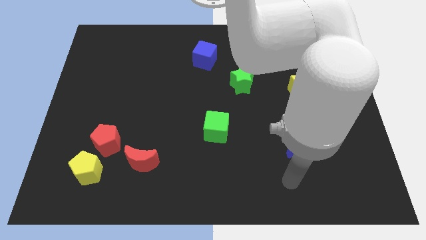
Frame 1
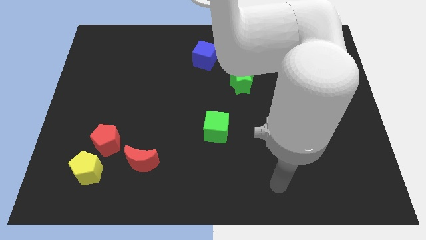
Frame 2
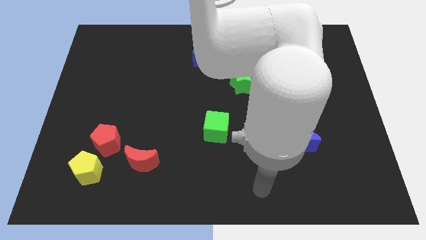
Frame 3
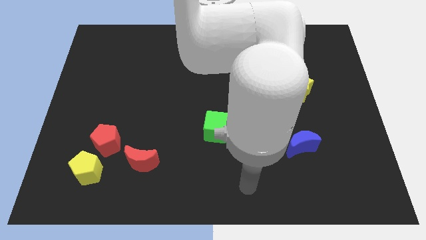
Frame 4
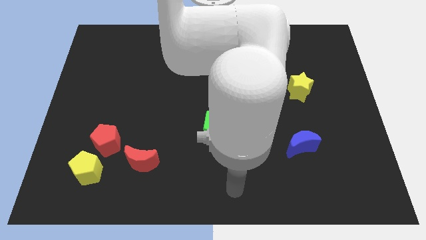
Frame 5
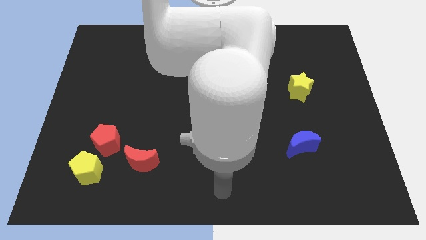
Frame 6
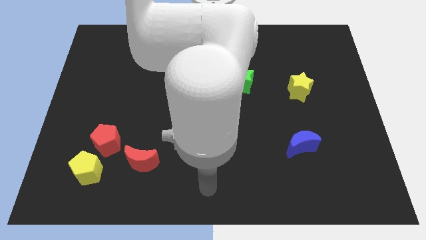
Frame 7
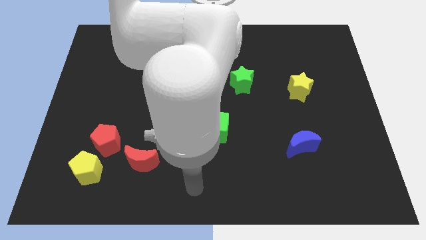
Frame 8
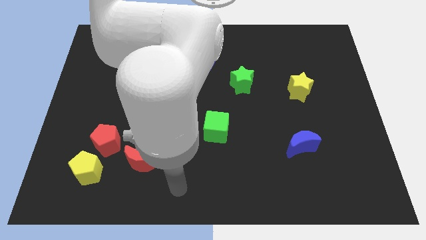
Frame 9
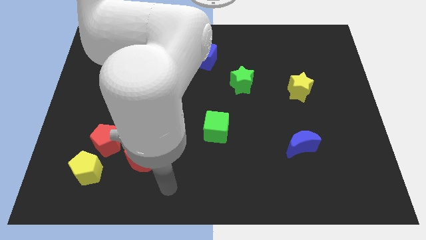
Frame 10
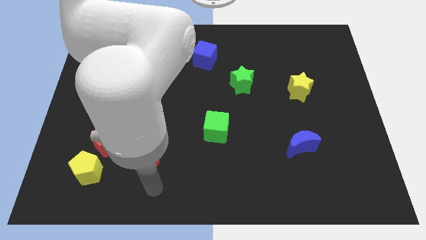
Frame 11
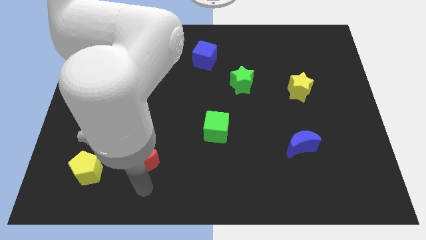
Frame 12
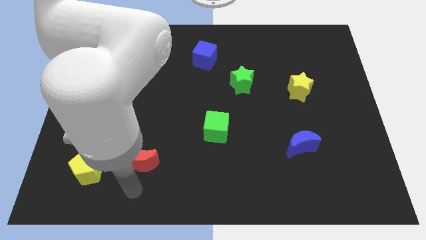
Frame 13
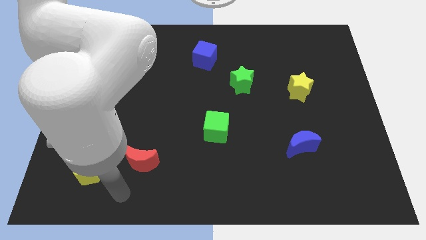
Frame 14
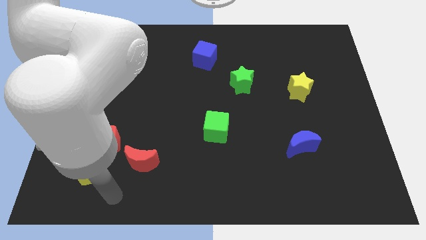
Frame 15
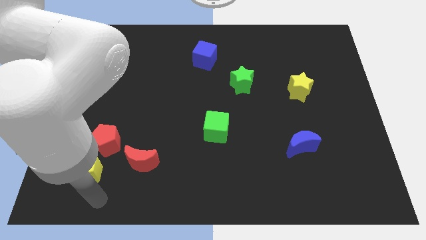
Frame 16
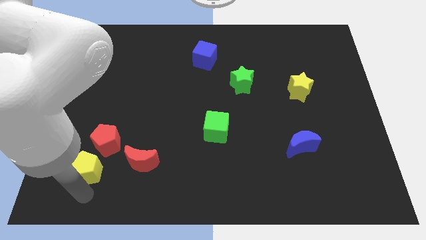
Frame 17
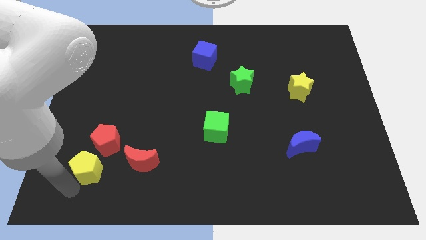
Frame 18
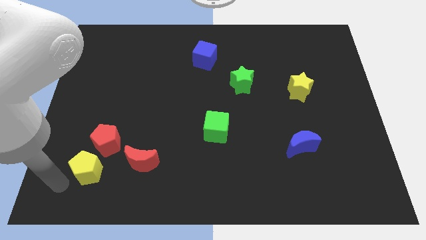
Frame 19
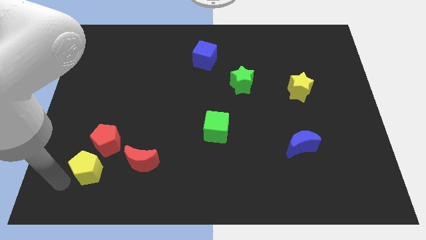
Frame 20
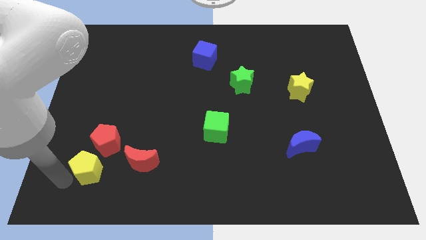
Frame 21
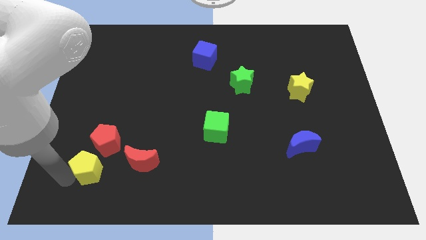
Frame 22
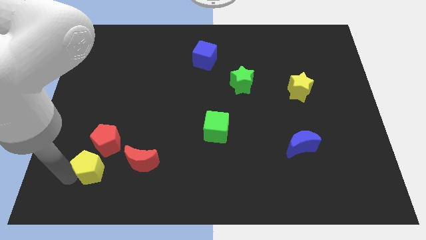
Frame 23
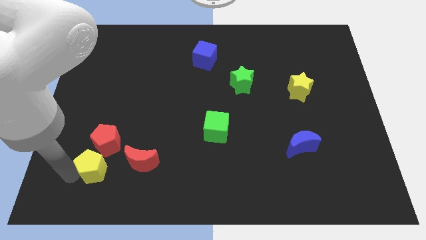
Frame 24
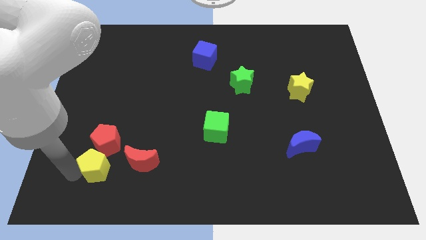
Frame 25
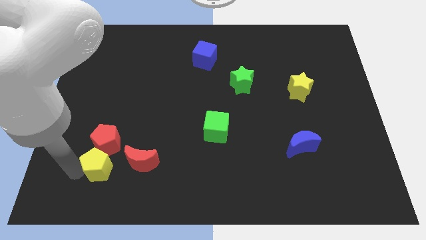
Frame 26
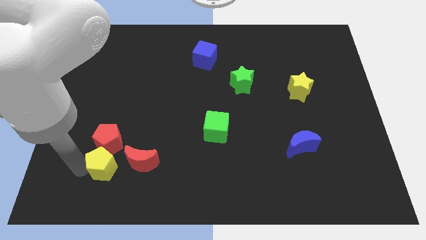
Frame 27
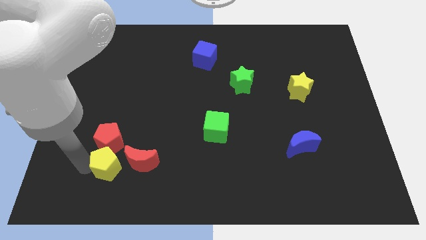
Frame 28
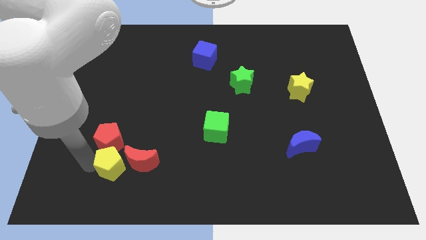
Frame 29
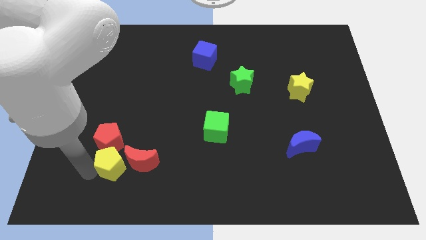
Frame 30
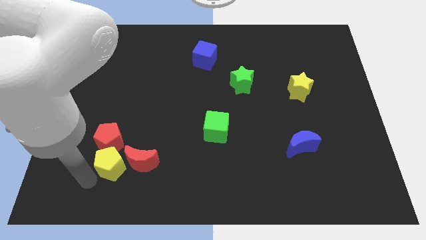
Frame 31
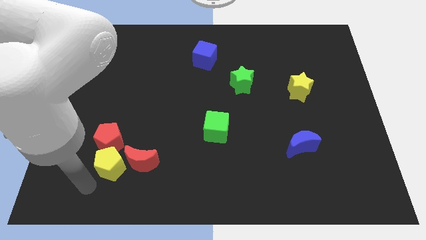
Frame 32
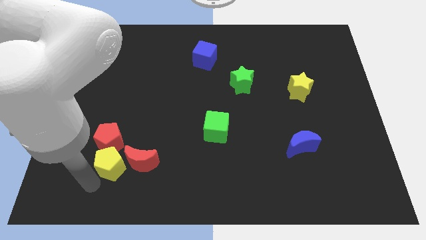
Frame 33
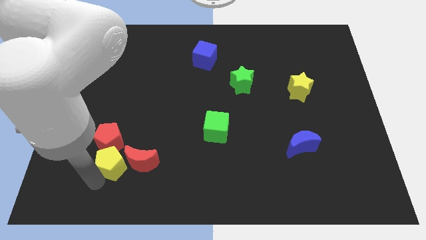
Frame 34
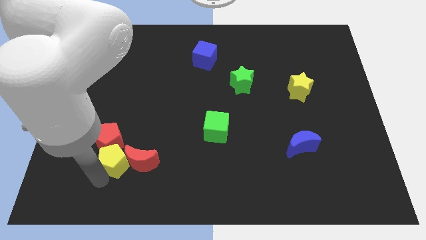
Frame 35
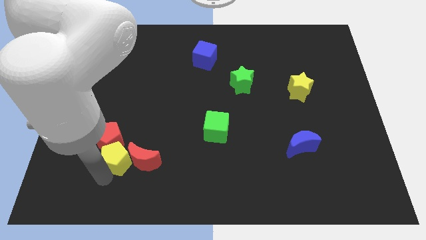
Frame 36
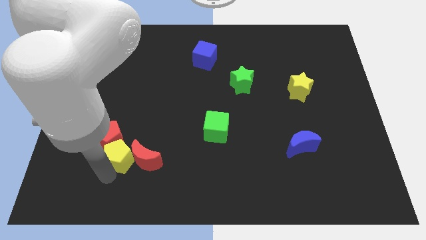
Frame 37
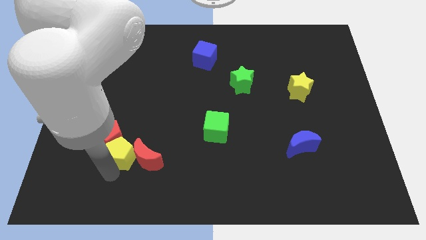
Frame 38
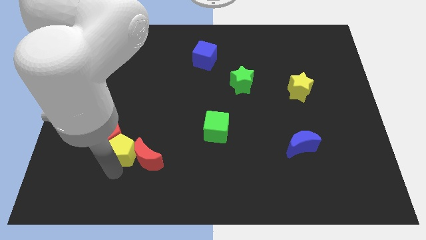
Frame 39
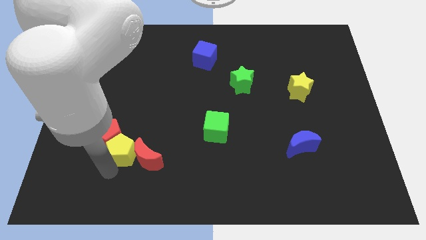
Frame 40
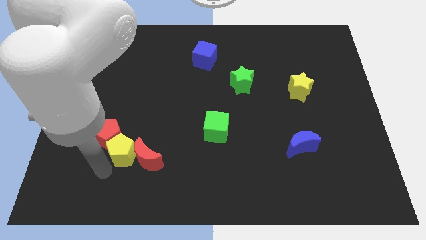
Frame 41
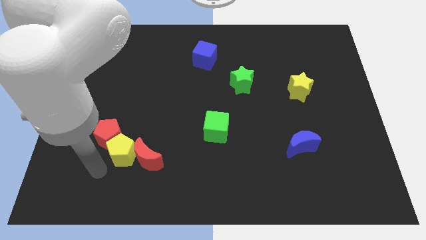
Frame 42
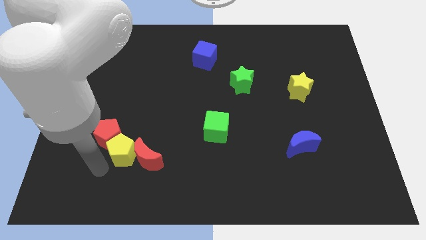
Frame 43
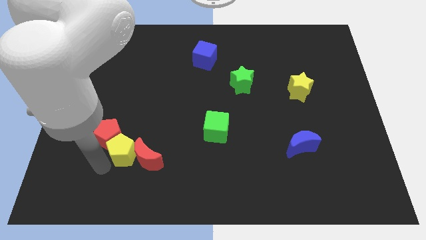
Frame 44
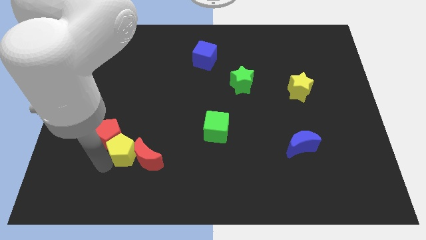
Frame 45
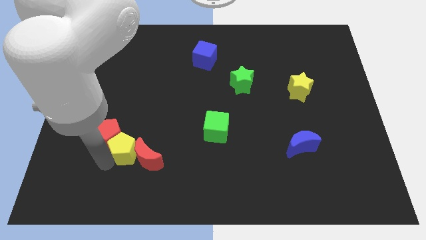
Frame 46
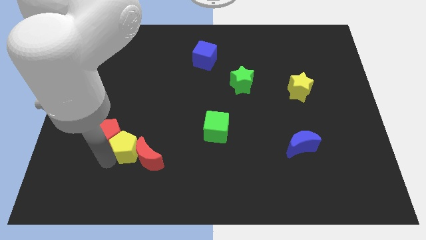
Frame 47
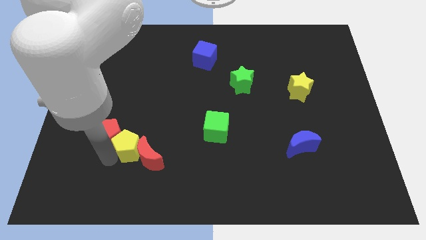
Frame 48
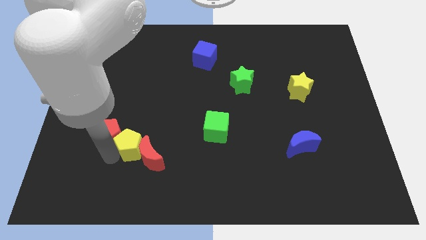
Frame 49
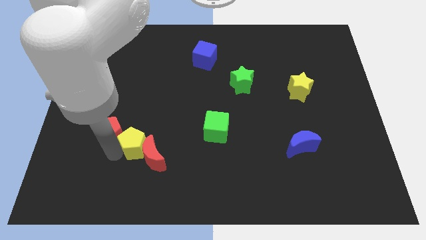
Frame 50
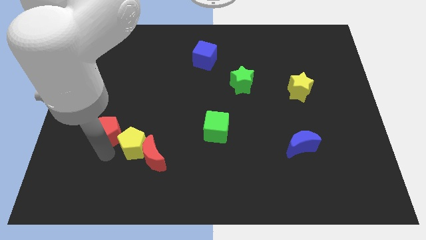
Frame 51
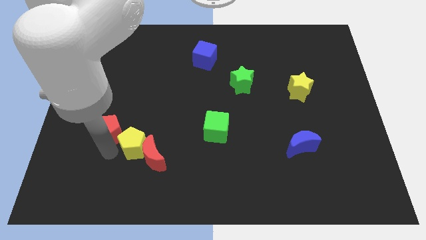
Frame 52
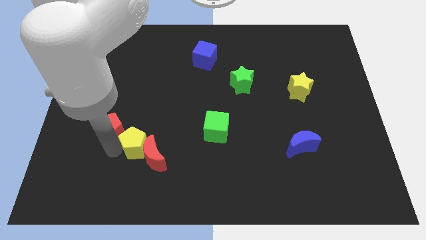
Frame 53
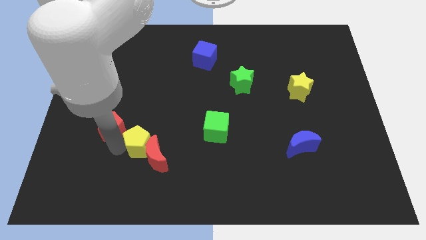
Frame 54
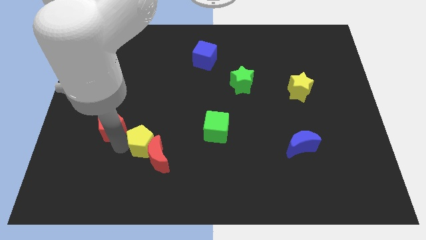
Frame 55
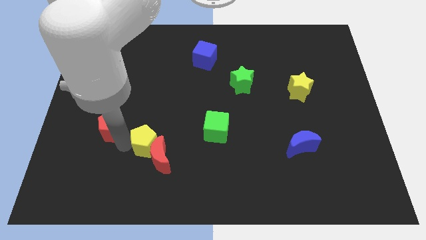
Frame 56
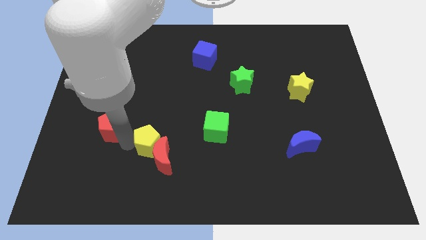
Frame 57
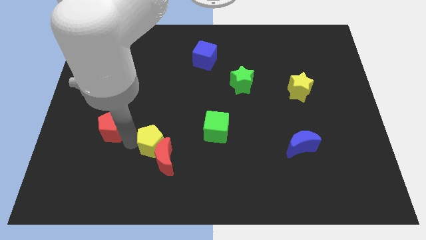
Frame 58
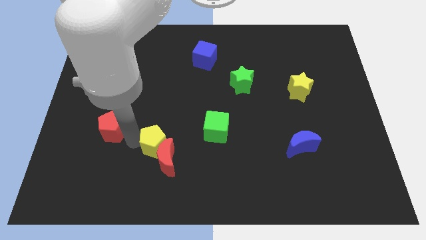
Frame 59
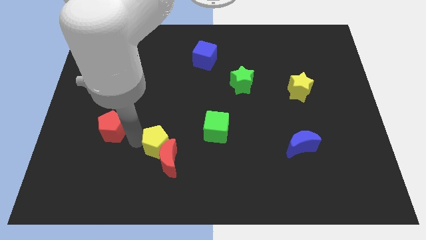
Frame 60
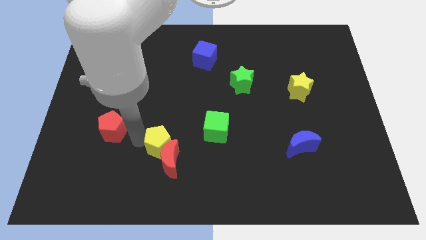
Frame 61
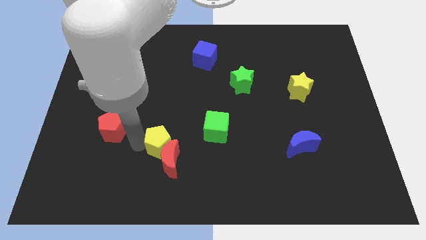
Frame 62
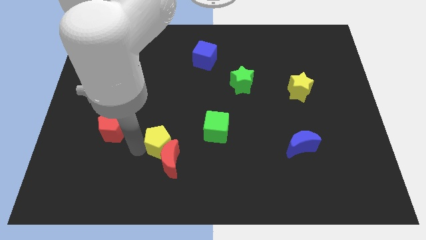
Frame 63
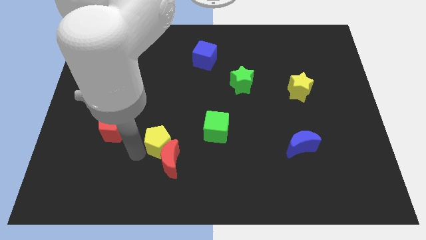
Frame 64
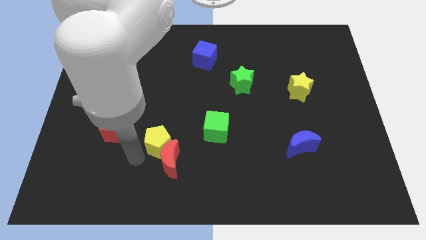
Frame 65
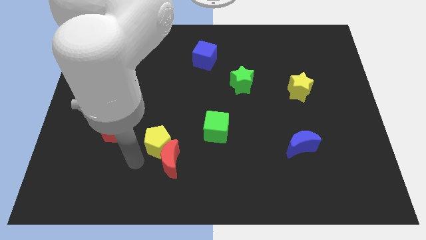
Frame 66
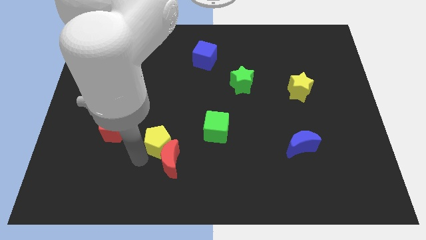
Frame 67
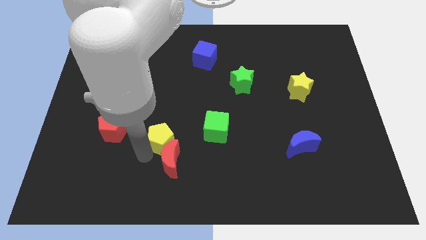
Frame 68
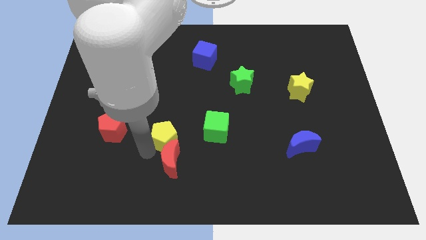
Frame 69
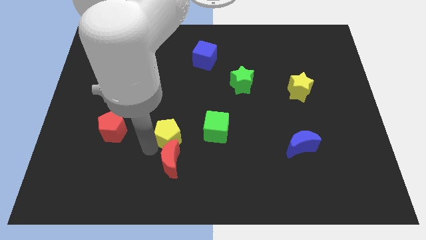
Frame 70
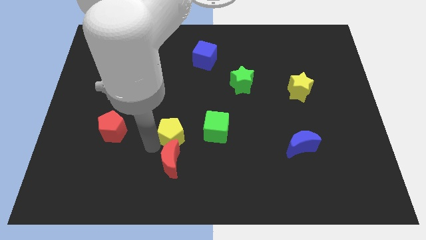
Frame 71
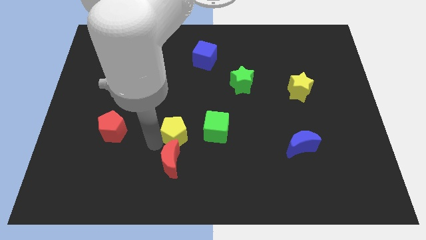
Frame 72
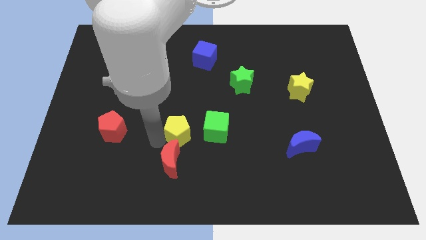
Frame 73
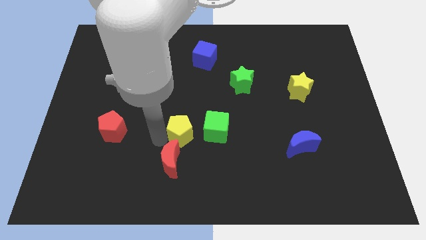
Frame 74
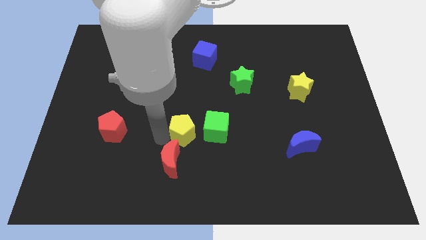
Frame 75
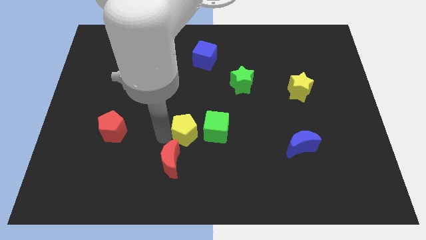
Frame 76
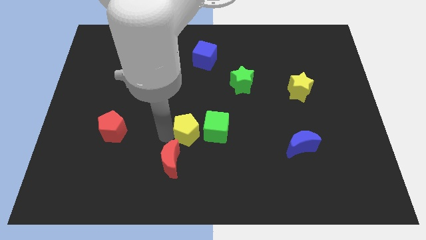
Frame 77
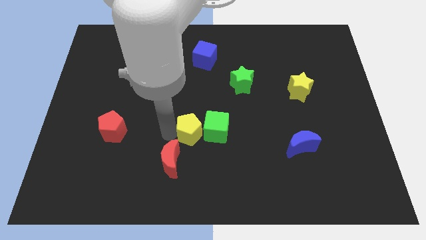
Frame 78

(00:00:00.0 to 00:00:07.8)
put the yellow pentagon towards the green cube
